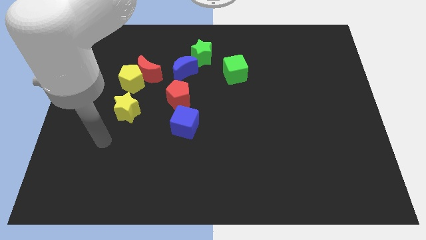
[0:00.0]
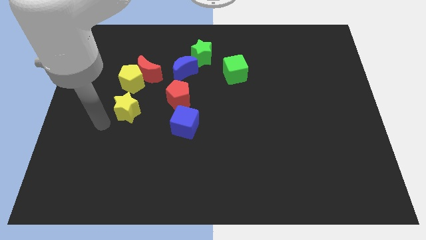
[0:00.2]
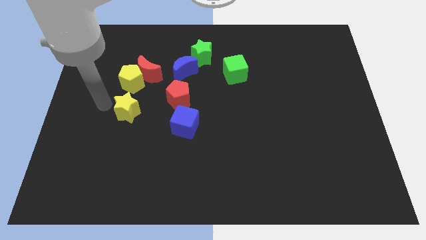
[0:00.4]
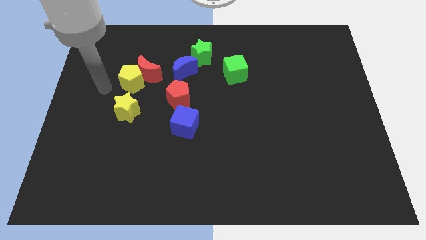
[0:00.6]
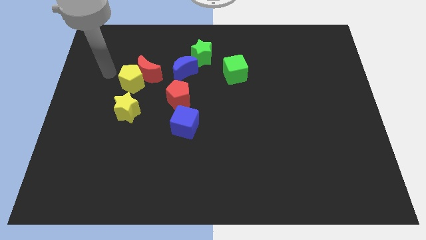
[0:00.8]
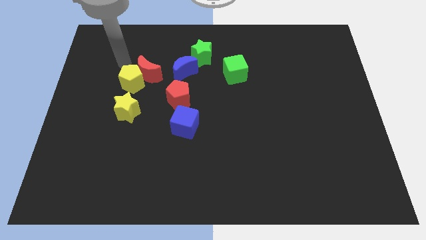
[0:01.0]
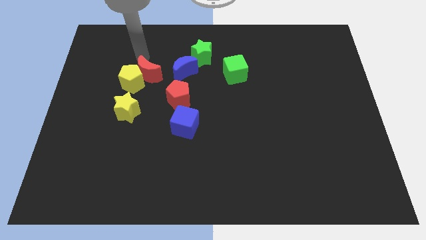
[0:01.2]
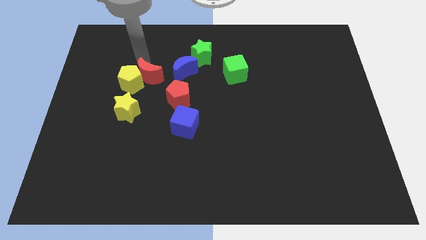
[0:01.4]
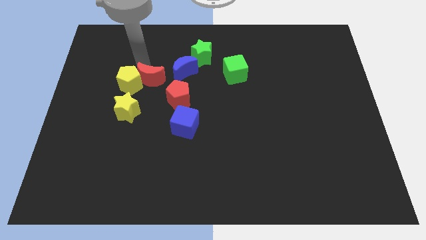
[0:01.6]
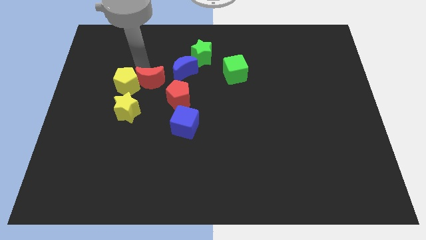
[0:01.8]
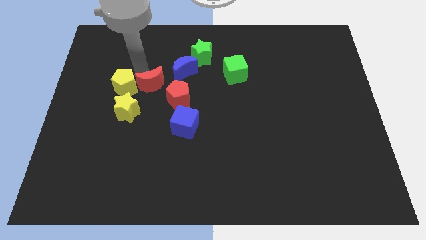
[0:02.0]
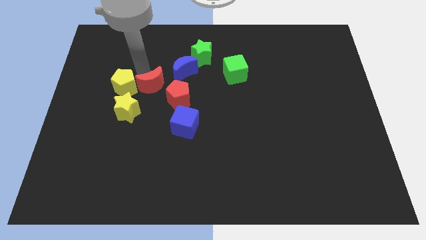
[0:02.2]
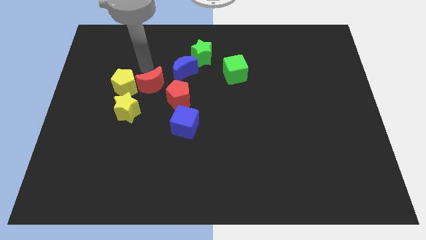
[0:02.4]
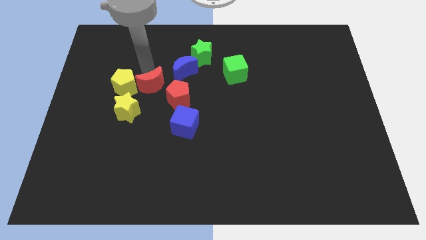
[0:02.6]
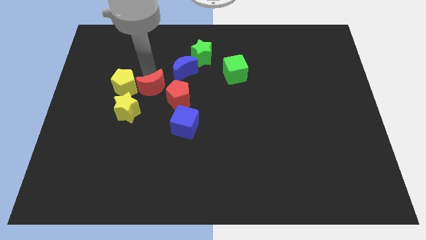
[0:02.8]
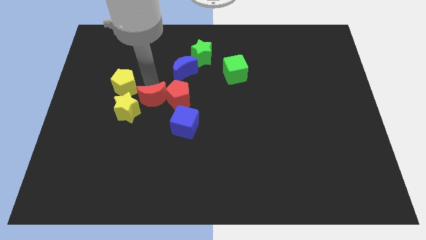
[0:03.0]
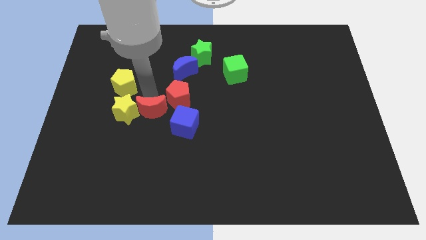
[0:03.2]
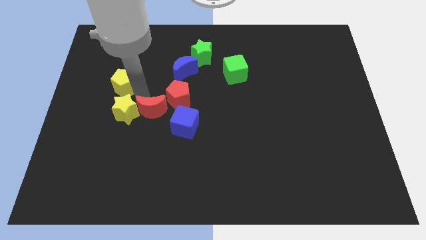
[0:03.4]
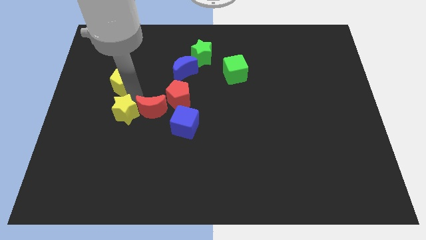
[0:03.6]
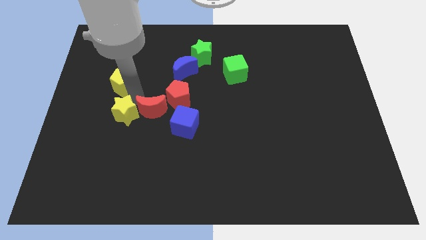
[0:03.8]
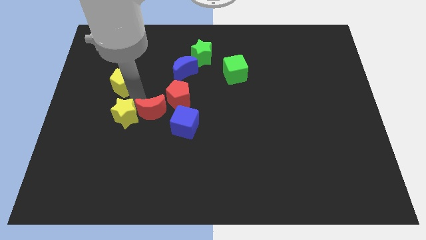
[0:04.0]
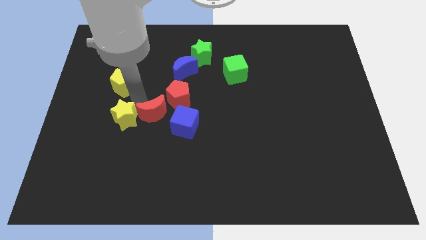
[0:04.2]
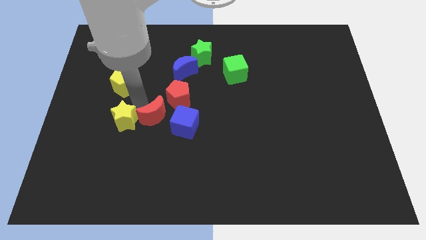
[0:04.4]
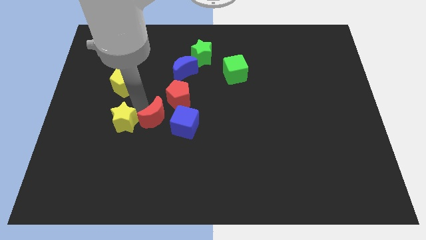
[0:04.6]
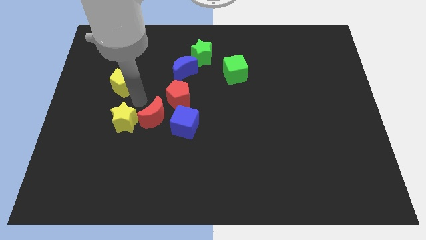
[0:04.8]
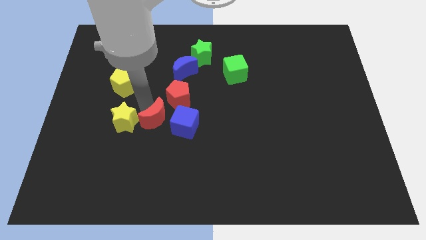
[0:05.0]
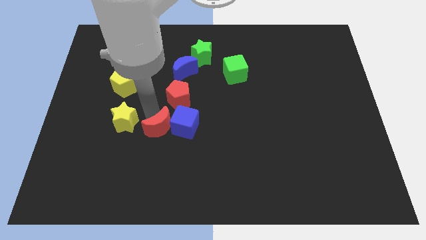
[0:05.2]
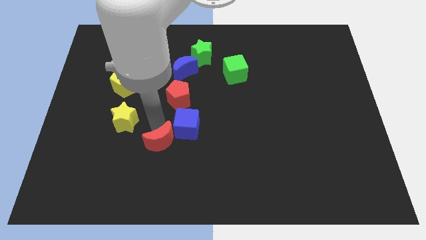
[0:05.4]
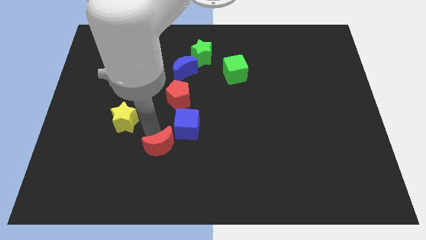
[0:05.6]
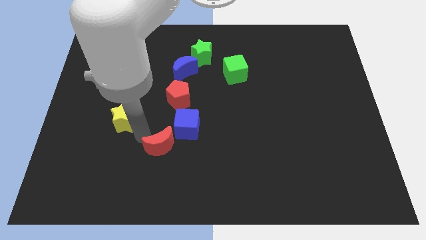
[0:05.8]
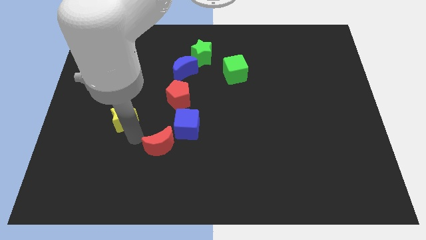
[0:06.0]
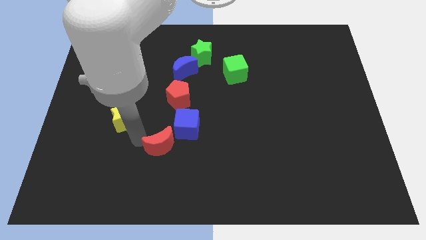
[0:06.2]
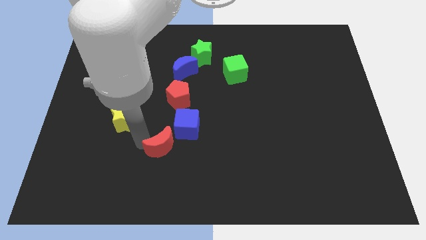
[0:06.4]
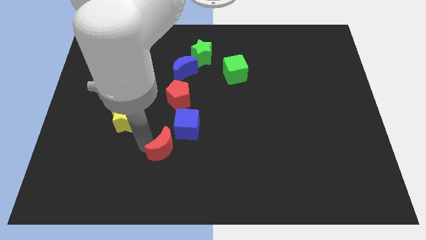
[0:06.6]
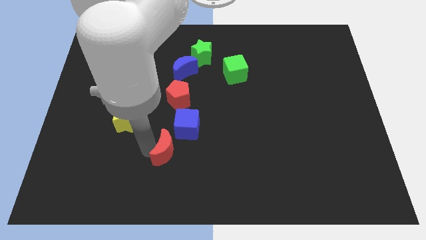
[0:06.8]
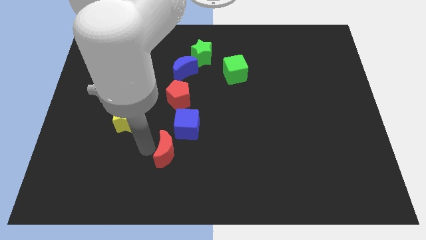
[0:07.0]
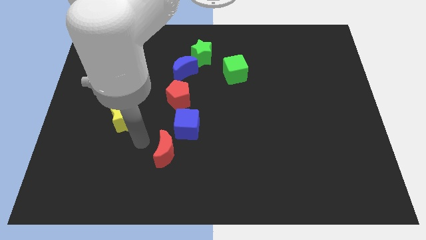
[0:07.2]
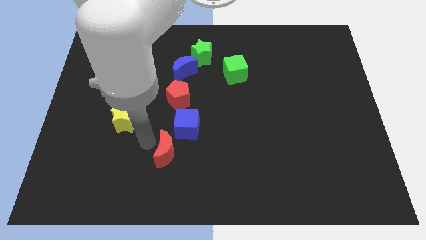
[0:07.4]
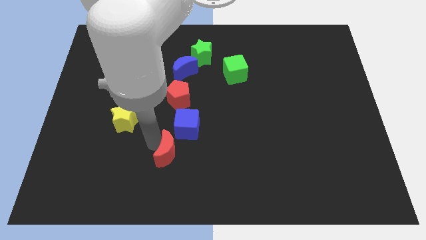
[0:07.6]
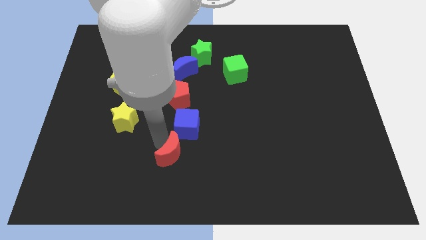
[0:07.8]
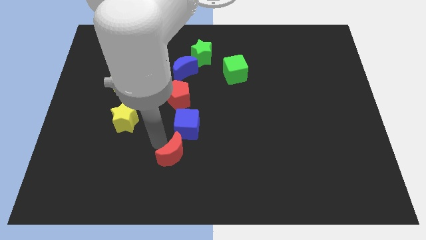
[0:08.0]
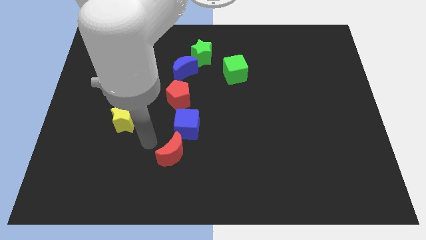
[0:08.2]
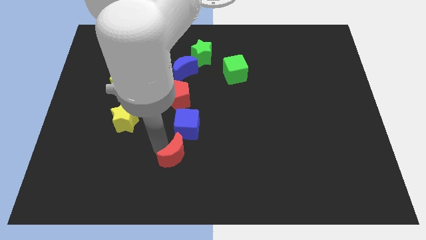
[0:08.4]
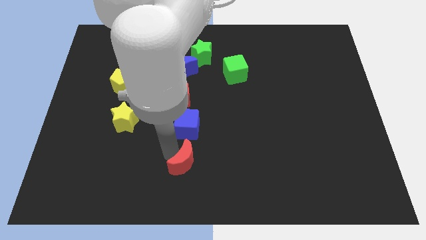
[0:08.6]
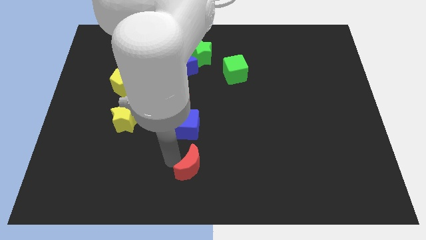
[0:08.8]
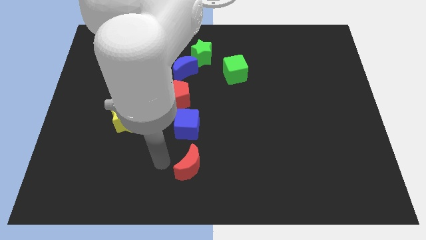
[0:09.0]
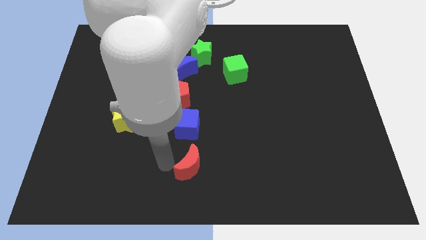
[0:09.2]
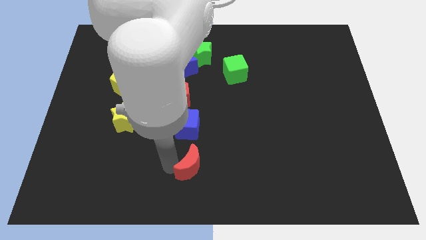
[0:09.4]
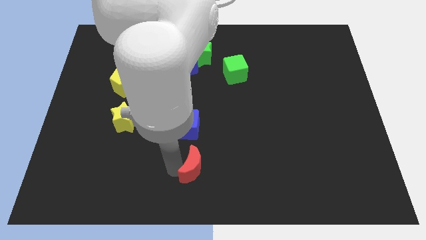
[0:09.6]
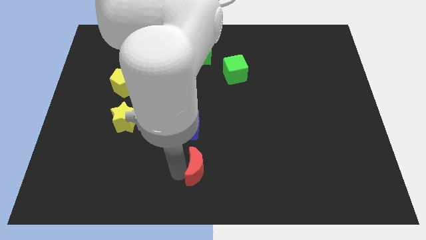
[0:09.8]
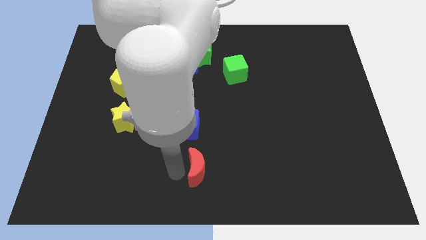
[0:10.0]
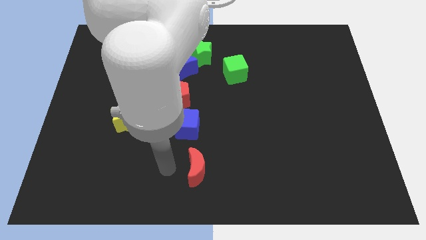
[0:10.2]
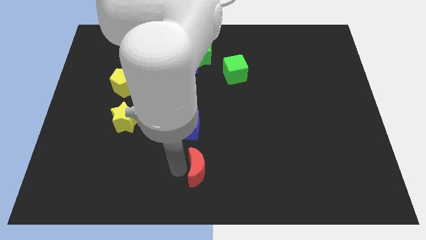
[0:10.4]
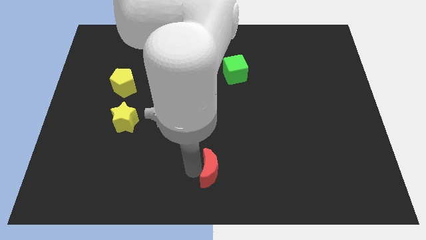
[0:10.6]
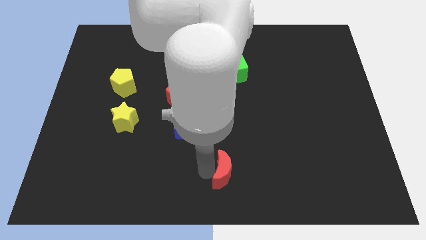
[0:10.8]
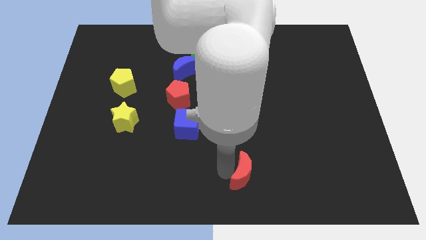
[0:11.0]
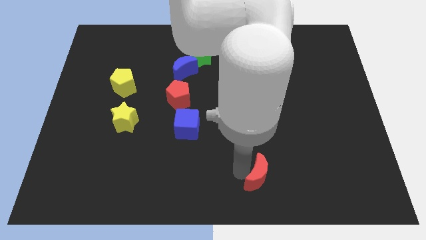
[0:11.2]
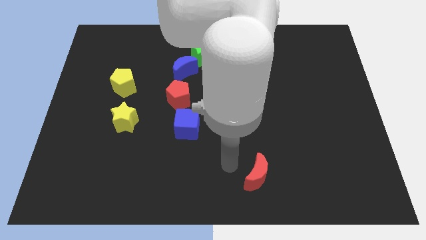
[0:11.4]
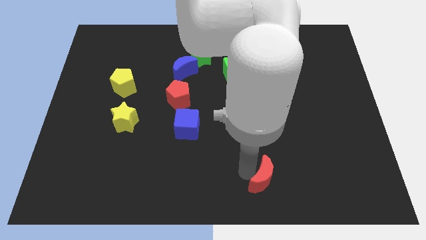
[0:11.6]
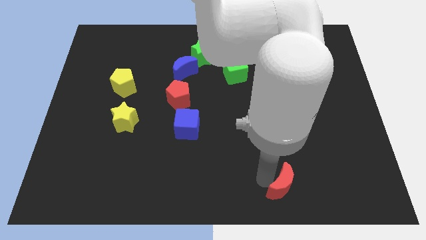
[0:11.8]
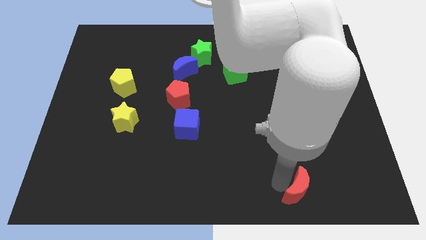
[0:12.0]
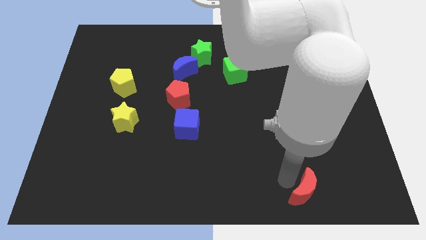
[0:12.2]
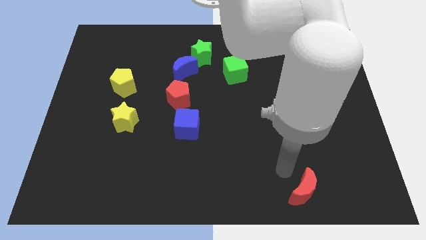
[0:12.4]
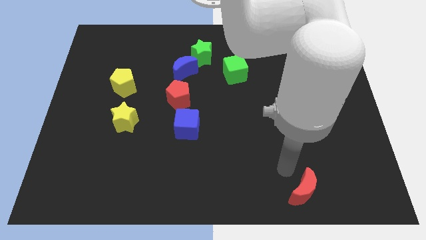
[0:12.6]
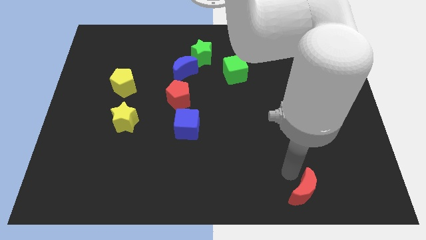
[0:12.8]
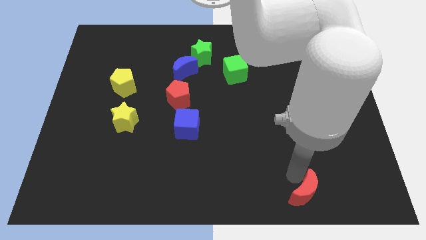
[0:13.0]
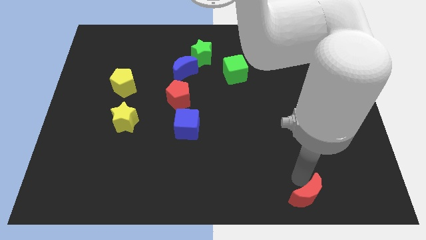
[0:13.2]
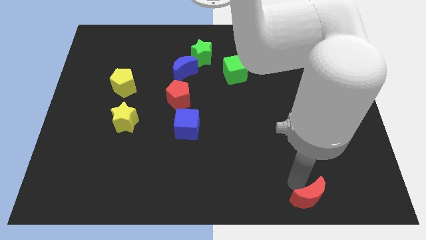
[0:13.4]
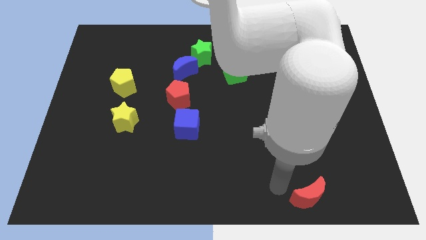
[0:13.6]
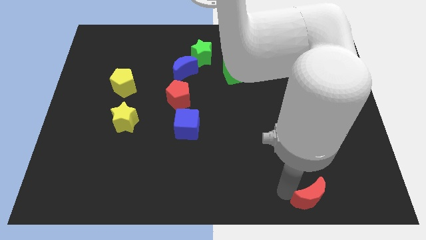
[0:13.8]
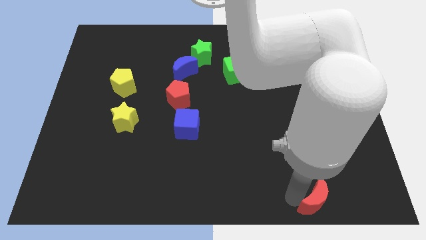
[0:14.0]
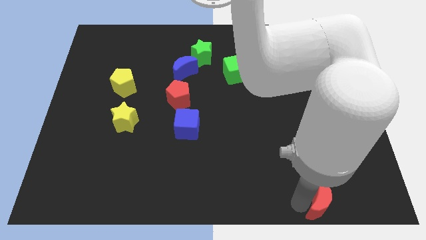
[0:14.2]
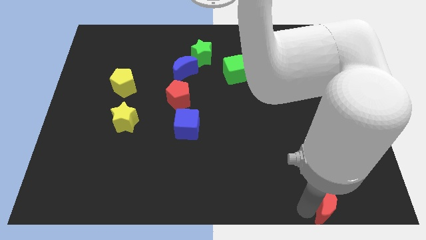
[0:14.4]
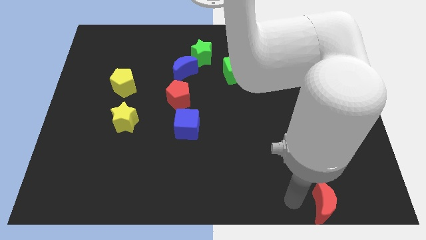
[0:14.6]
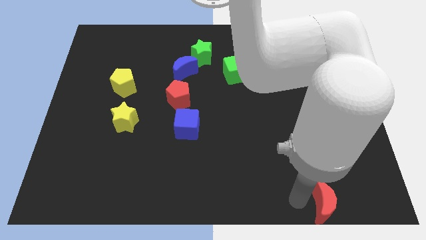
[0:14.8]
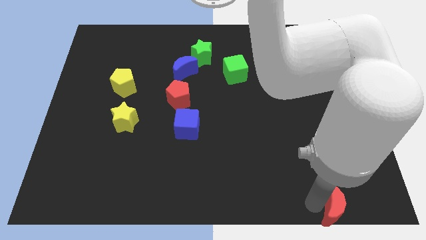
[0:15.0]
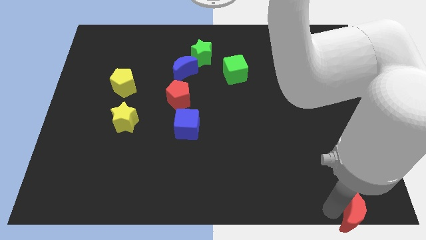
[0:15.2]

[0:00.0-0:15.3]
slide the red moon to the lower right corner
